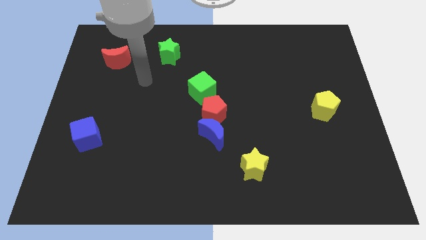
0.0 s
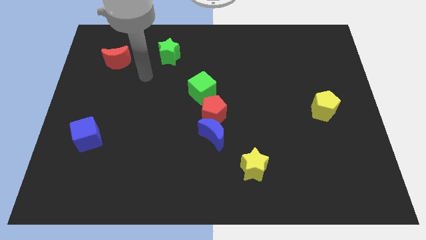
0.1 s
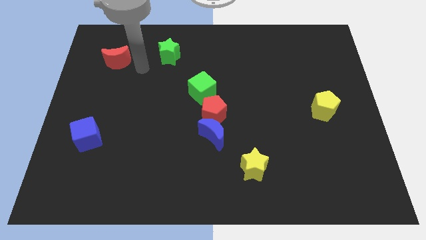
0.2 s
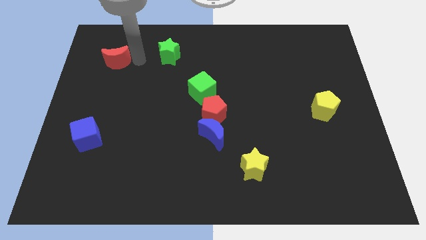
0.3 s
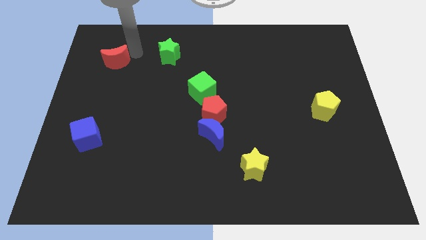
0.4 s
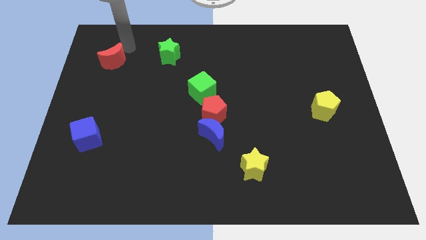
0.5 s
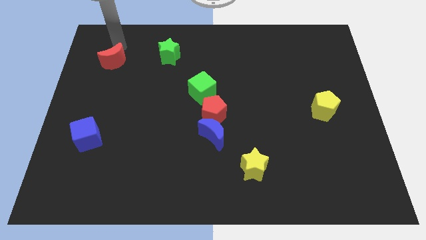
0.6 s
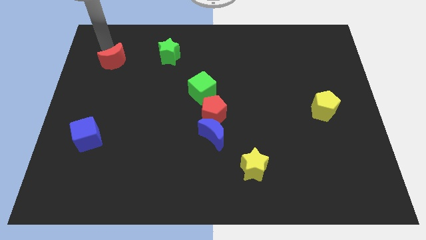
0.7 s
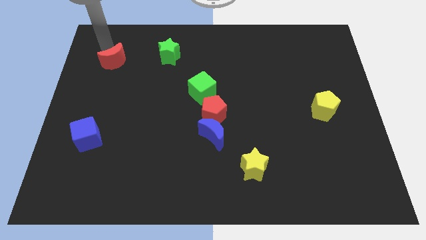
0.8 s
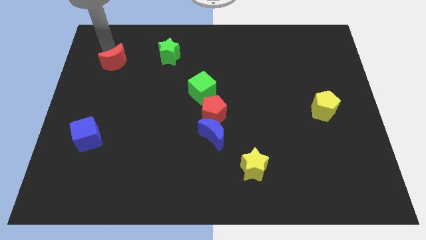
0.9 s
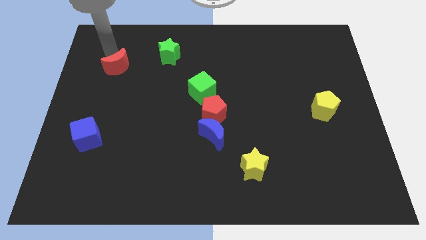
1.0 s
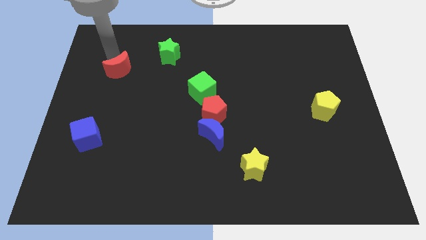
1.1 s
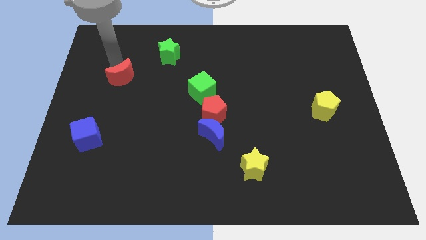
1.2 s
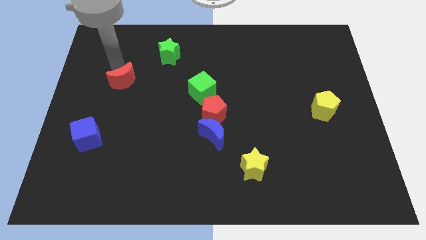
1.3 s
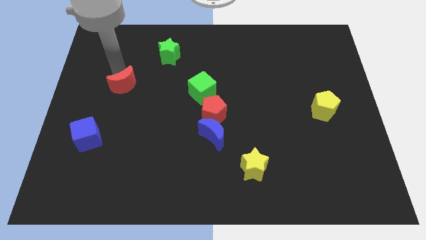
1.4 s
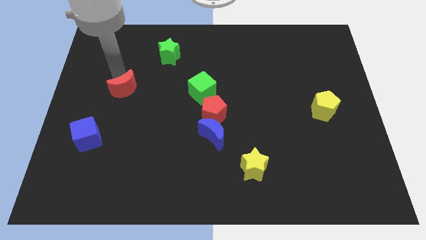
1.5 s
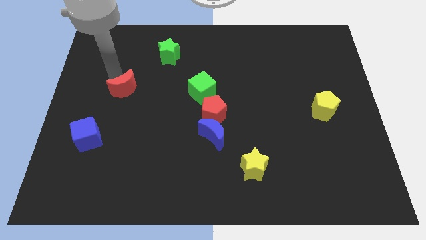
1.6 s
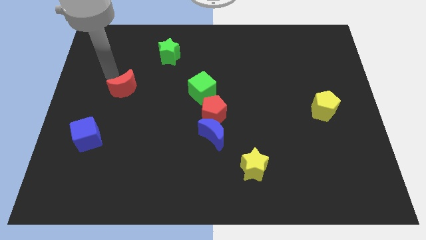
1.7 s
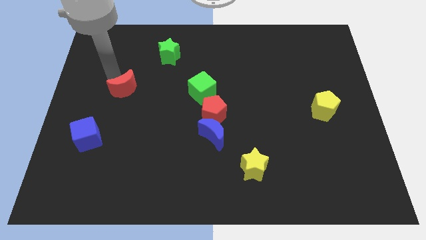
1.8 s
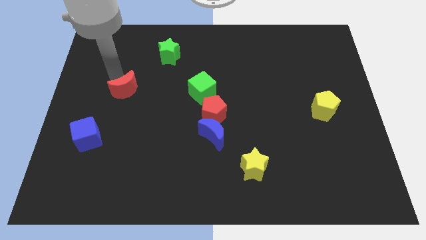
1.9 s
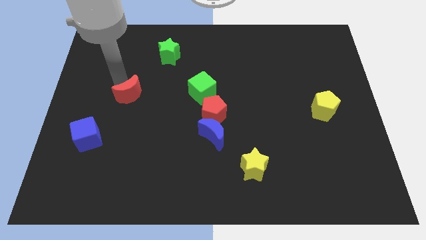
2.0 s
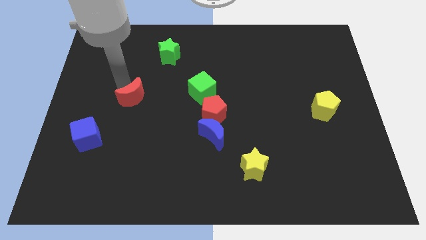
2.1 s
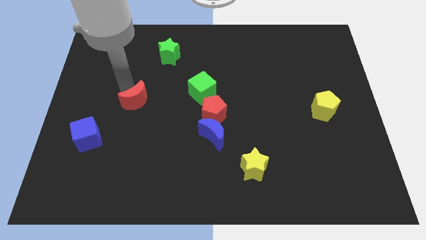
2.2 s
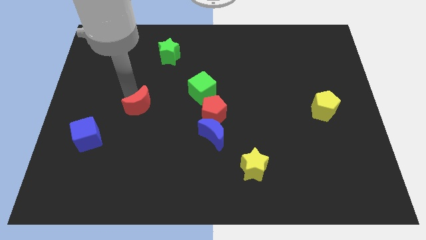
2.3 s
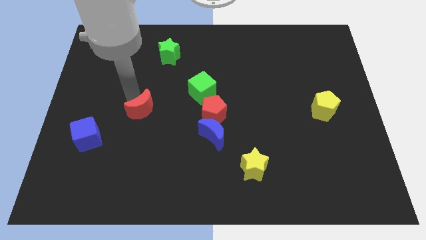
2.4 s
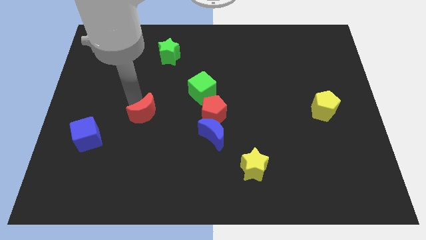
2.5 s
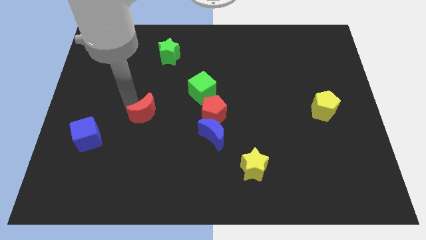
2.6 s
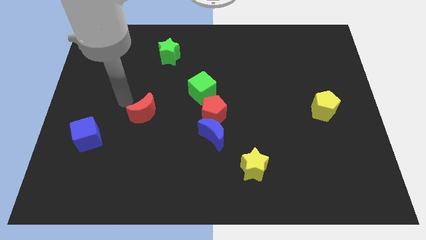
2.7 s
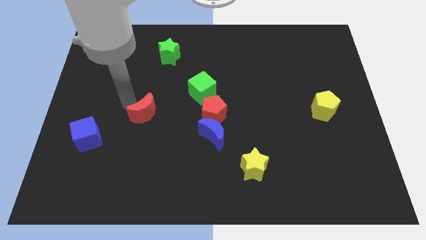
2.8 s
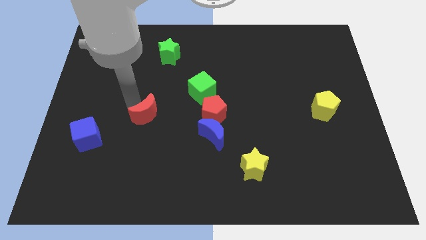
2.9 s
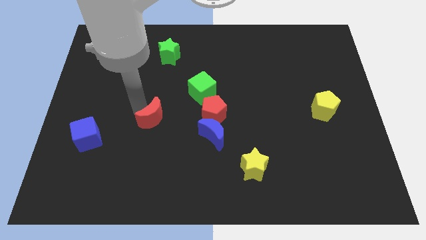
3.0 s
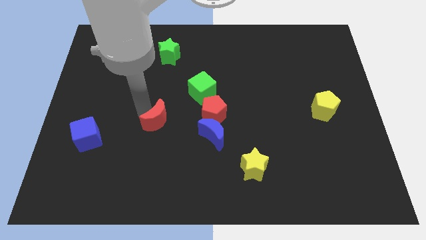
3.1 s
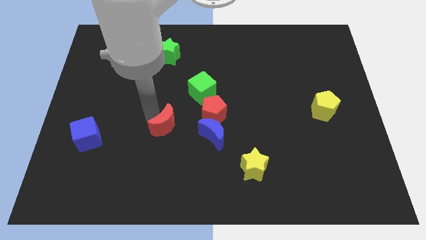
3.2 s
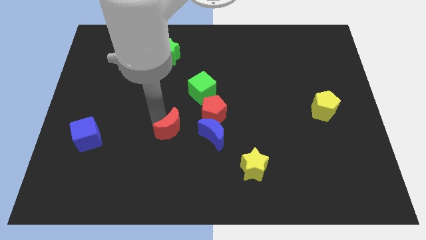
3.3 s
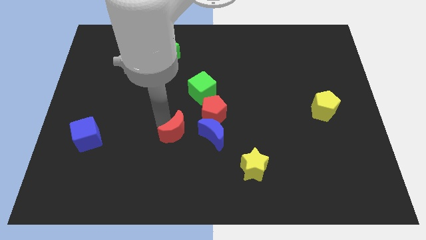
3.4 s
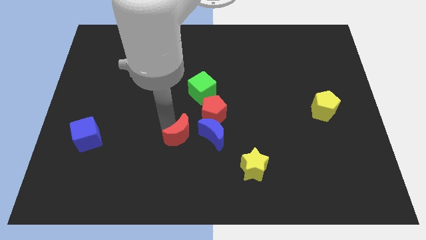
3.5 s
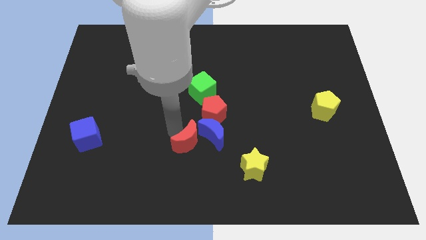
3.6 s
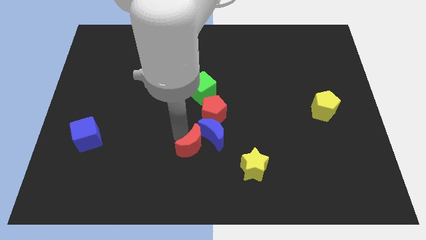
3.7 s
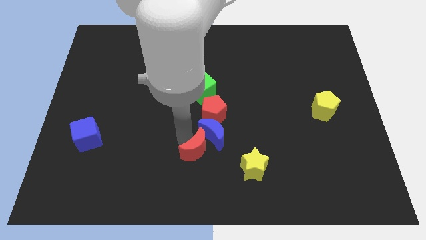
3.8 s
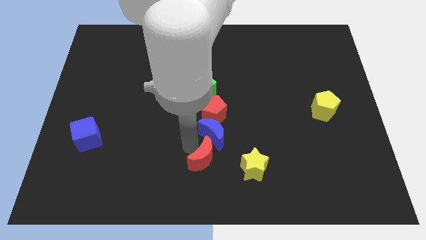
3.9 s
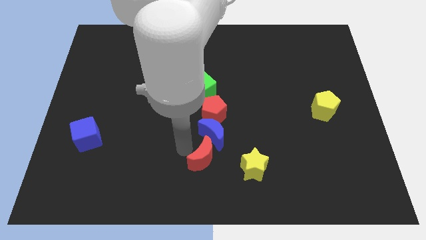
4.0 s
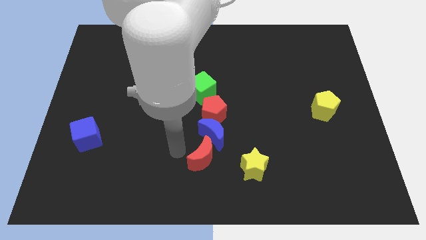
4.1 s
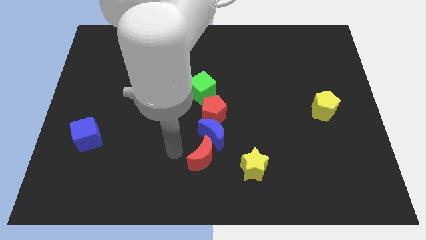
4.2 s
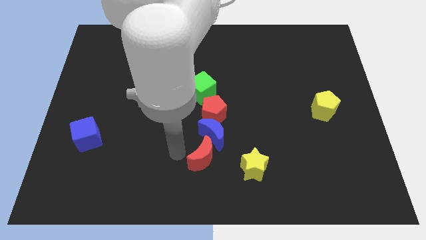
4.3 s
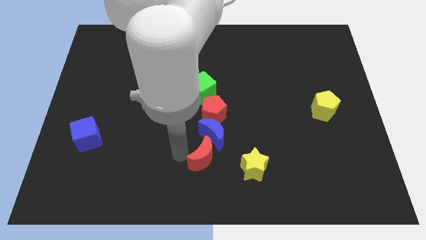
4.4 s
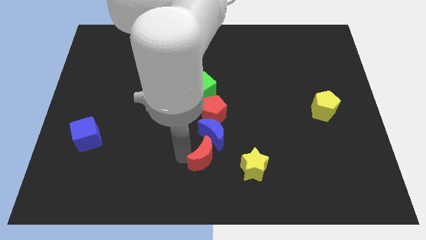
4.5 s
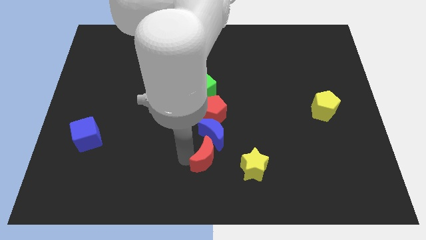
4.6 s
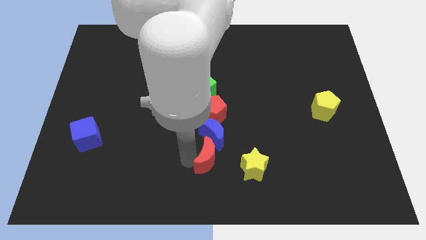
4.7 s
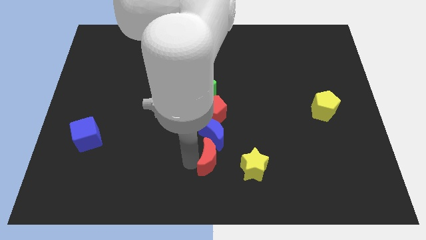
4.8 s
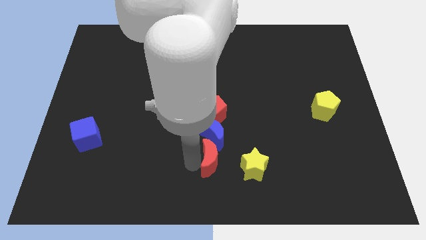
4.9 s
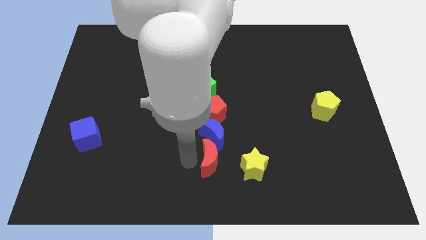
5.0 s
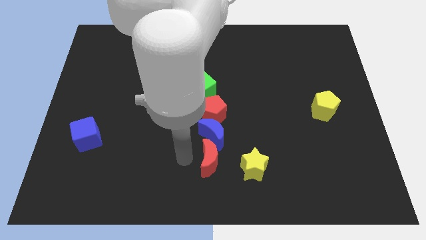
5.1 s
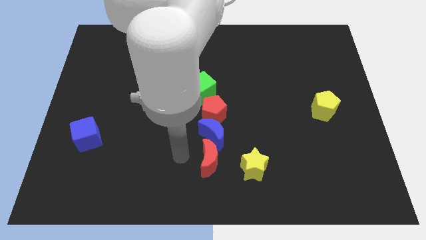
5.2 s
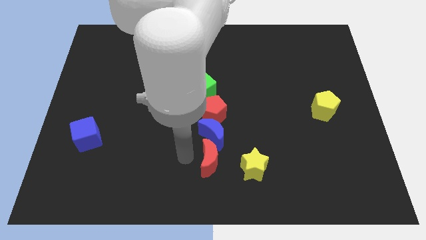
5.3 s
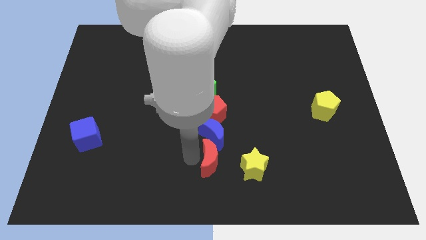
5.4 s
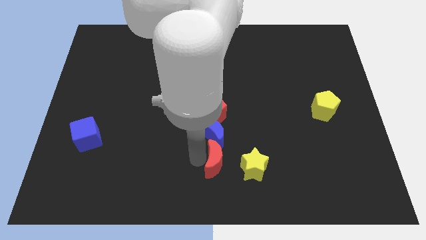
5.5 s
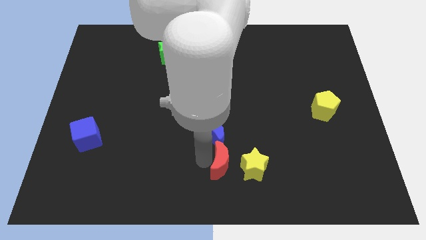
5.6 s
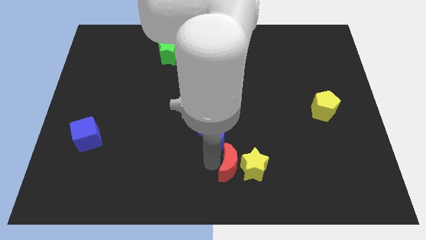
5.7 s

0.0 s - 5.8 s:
move the red moon to the yellow star

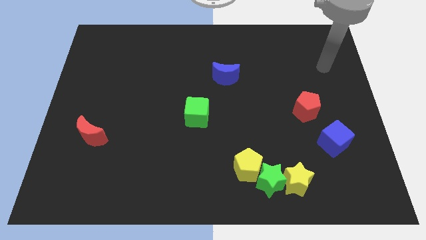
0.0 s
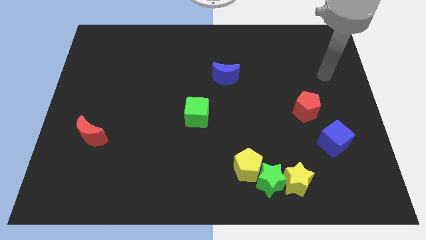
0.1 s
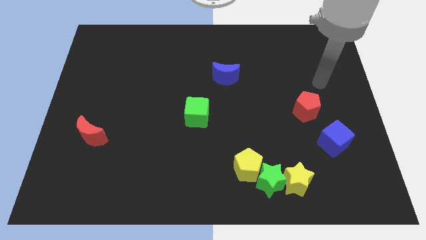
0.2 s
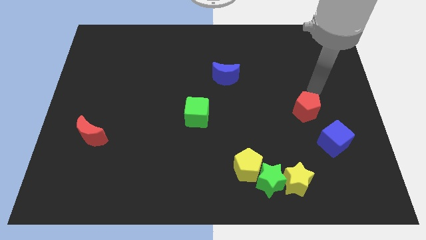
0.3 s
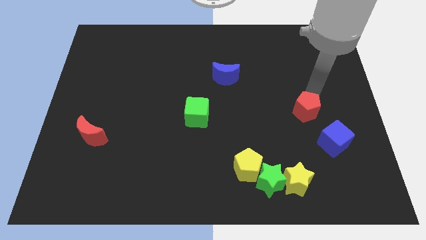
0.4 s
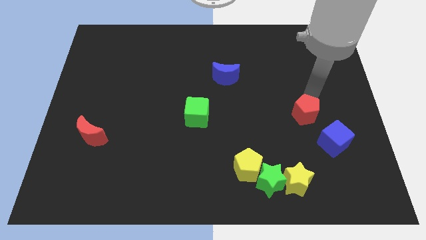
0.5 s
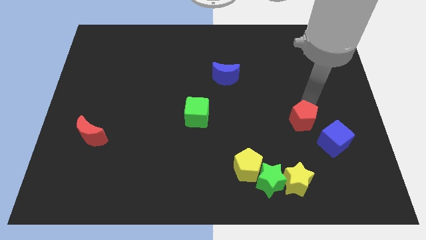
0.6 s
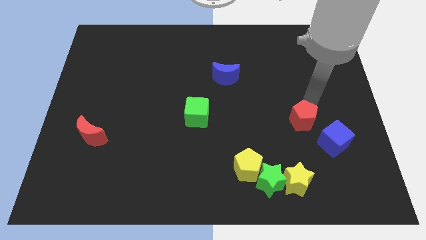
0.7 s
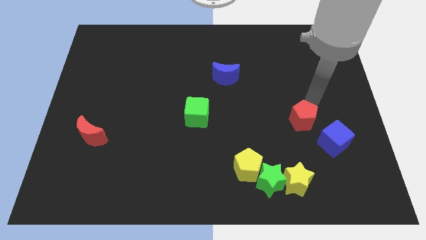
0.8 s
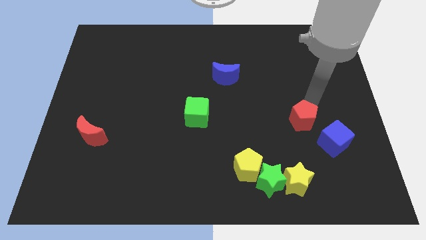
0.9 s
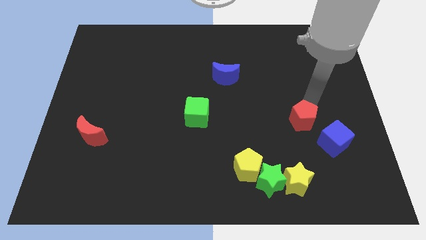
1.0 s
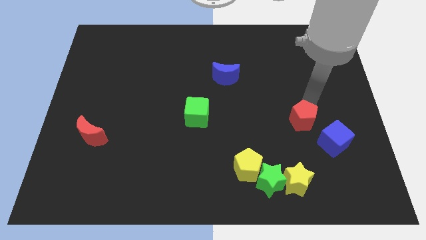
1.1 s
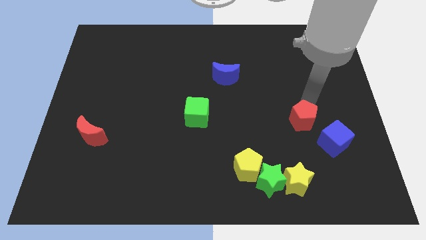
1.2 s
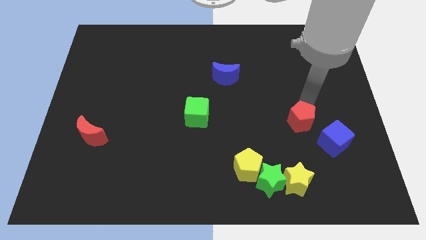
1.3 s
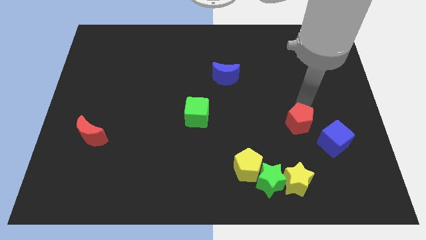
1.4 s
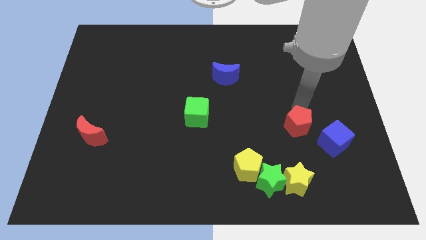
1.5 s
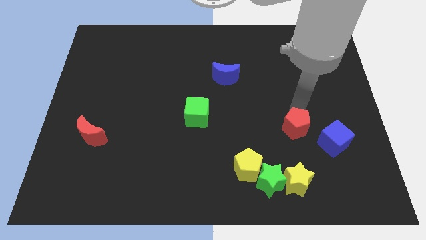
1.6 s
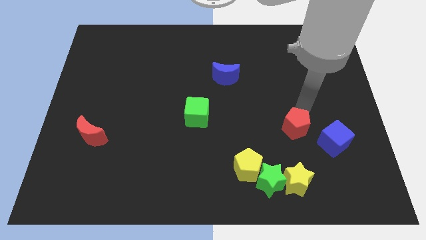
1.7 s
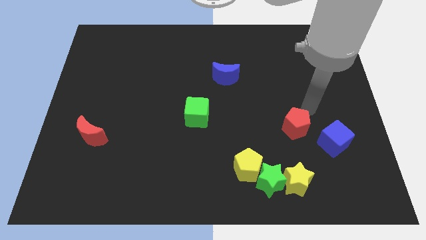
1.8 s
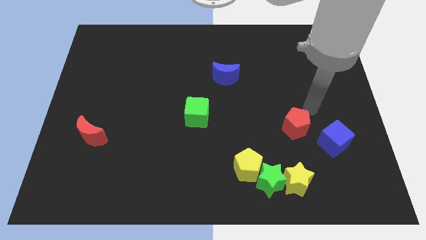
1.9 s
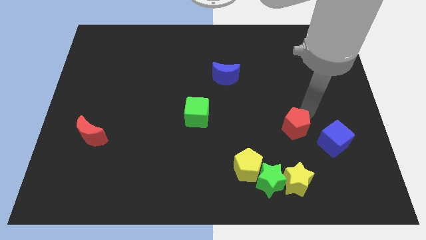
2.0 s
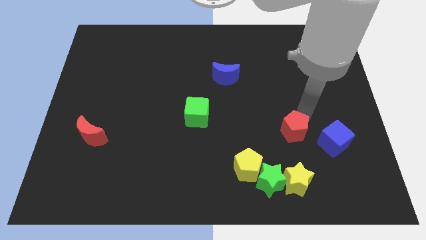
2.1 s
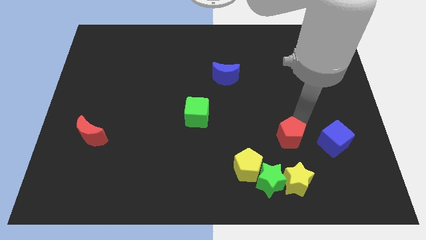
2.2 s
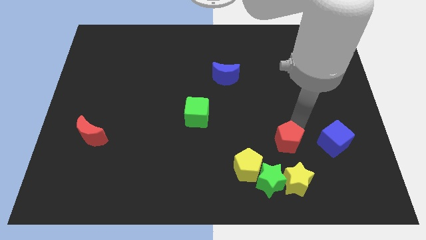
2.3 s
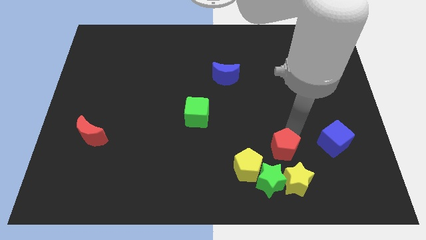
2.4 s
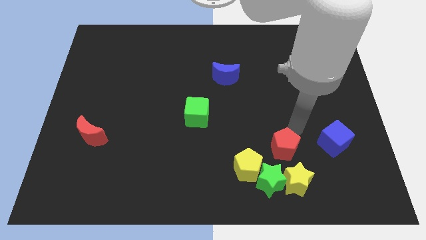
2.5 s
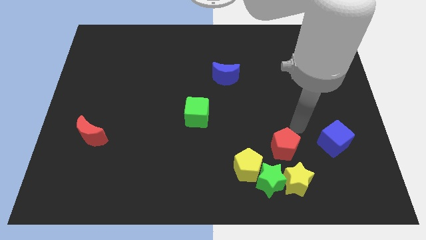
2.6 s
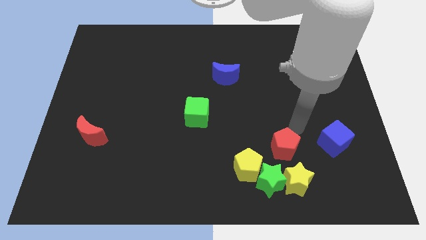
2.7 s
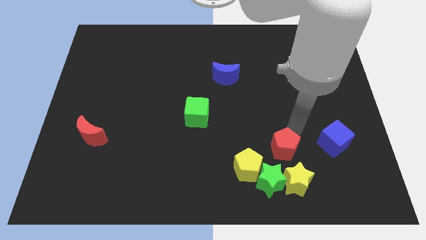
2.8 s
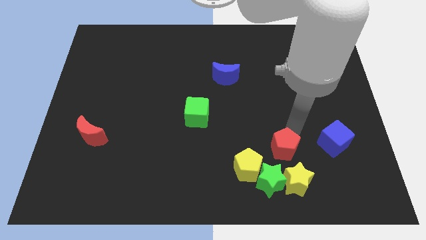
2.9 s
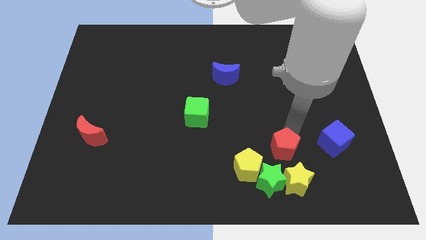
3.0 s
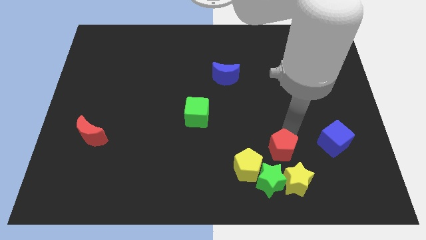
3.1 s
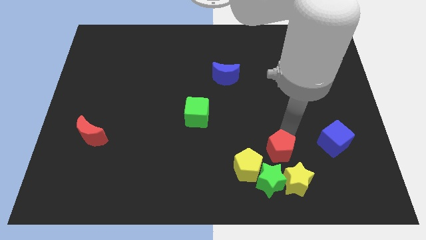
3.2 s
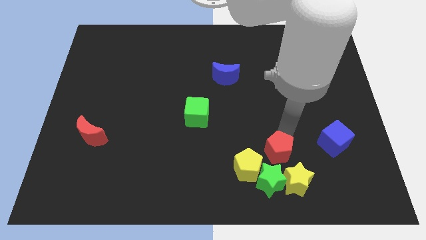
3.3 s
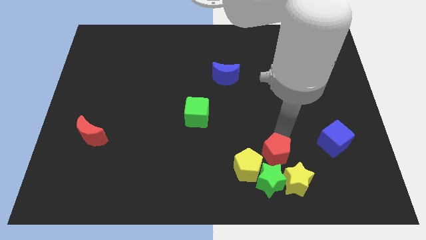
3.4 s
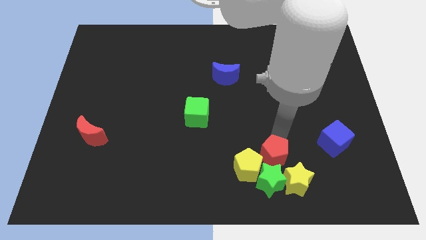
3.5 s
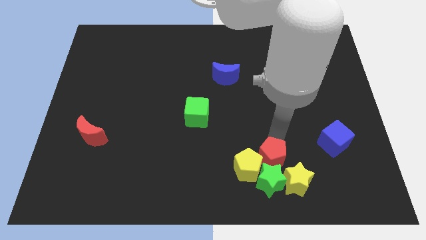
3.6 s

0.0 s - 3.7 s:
put the red pentagon towards the green star
